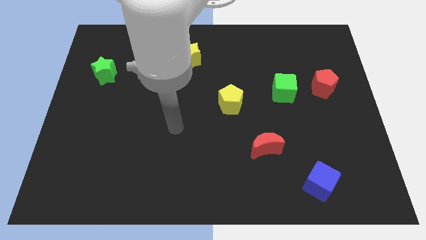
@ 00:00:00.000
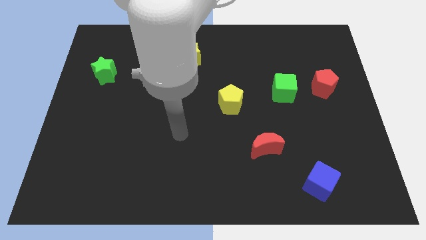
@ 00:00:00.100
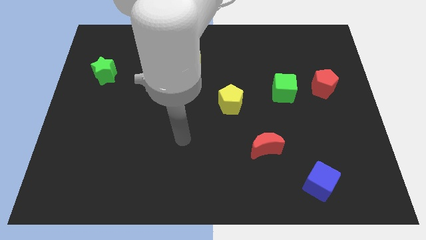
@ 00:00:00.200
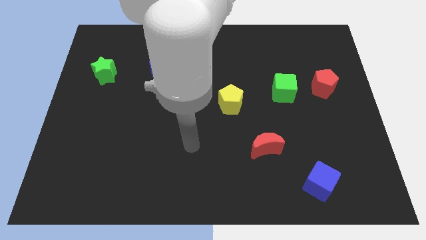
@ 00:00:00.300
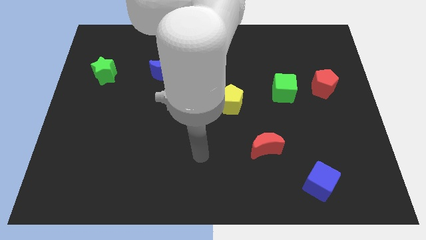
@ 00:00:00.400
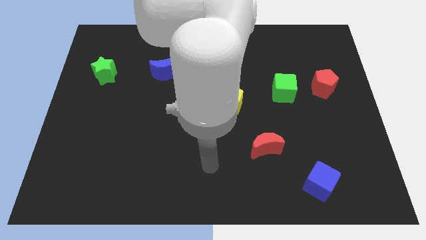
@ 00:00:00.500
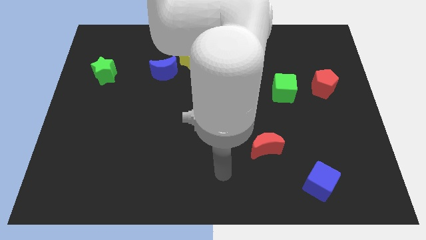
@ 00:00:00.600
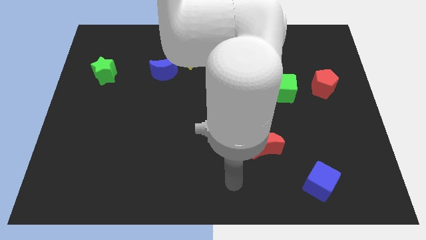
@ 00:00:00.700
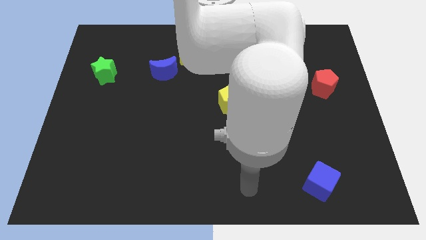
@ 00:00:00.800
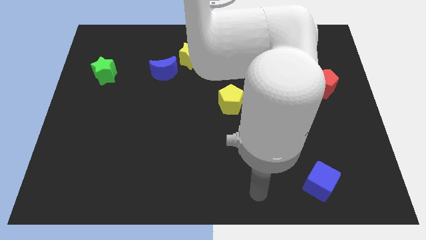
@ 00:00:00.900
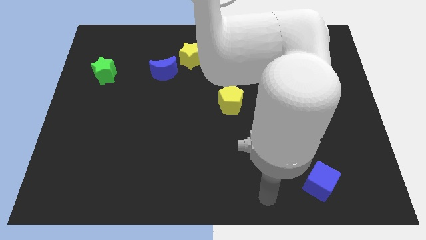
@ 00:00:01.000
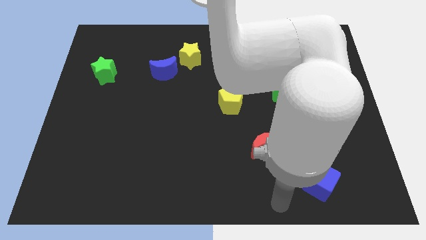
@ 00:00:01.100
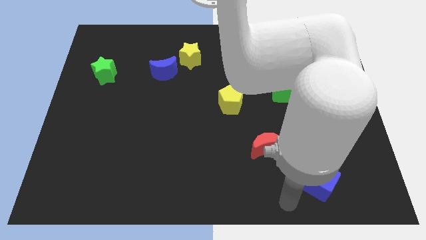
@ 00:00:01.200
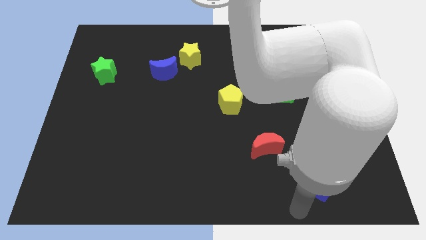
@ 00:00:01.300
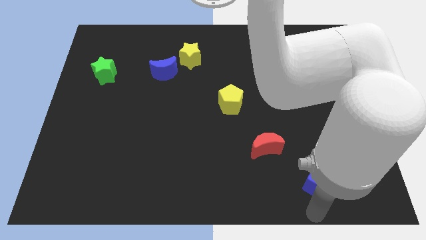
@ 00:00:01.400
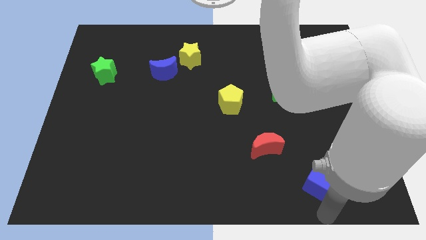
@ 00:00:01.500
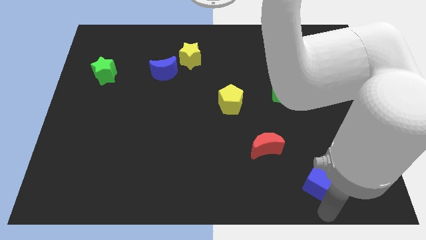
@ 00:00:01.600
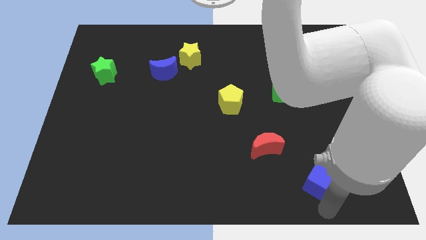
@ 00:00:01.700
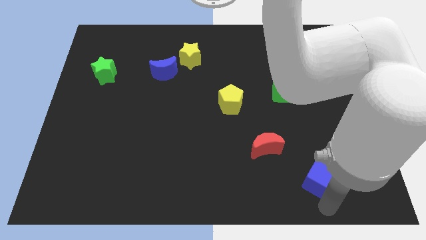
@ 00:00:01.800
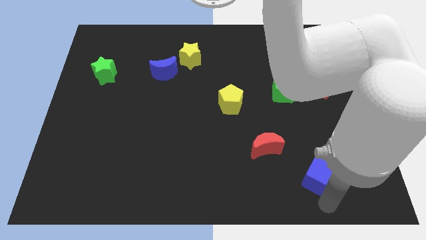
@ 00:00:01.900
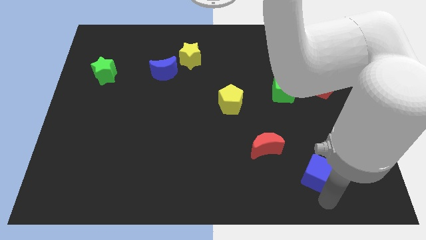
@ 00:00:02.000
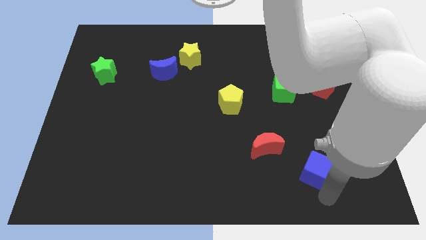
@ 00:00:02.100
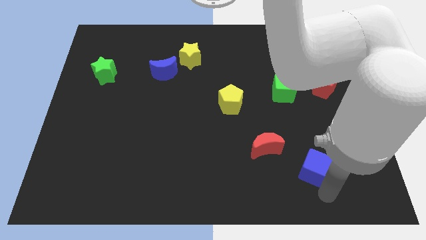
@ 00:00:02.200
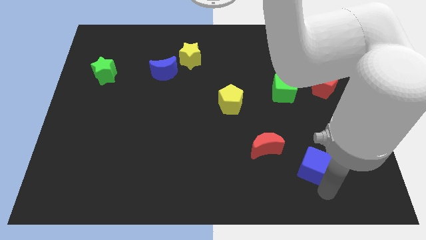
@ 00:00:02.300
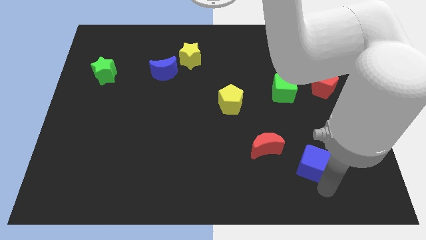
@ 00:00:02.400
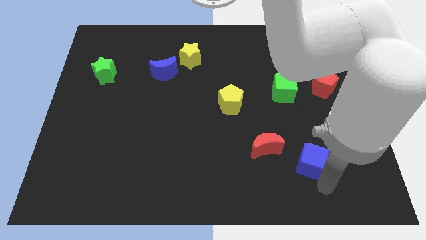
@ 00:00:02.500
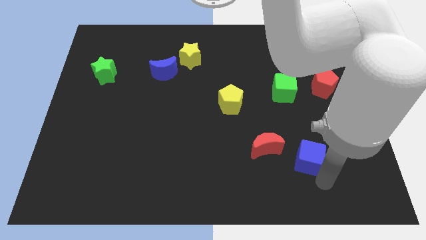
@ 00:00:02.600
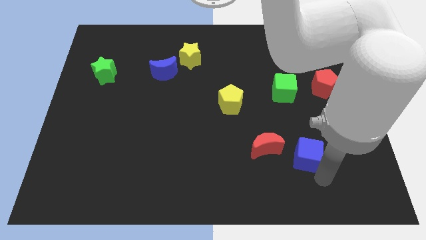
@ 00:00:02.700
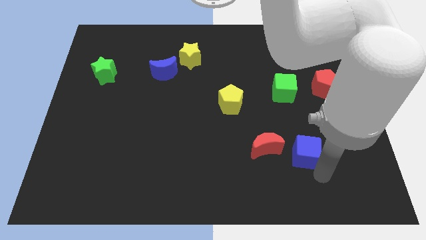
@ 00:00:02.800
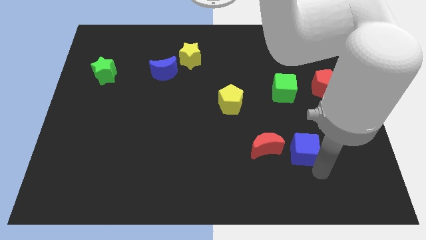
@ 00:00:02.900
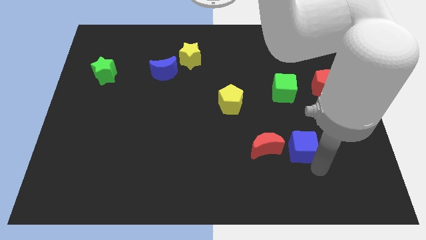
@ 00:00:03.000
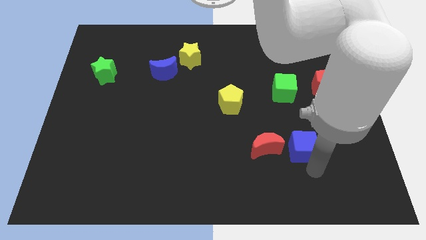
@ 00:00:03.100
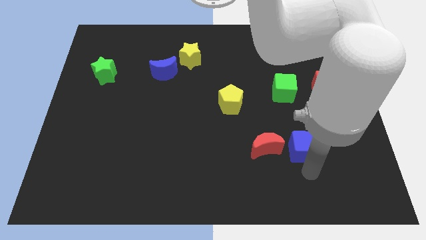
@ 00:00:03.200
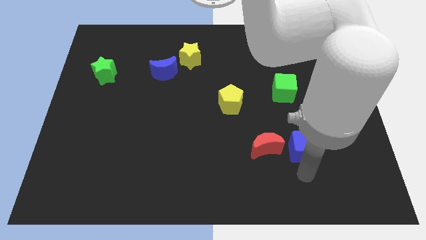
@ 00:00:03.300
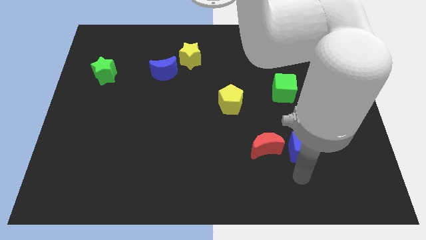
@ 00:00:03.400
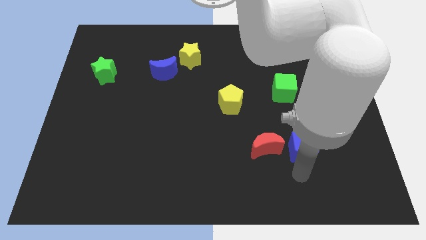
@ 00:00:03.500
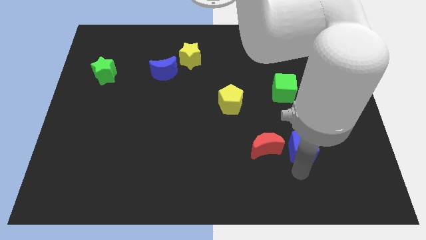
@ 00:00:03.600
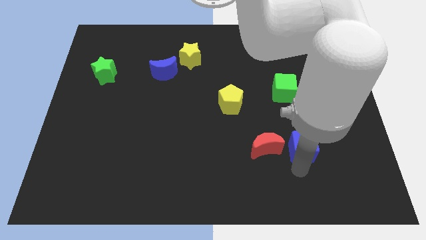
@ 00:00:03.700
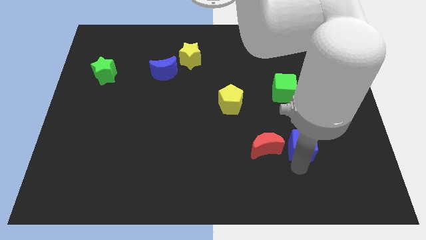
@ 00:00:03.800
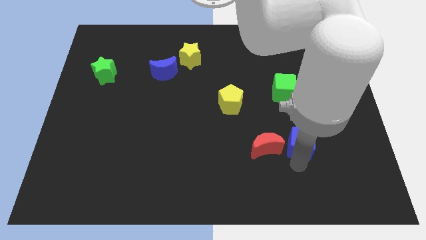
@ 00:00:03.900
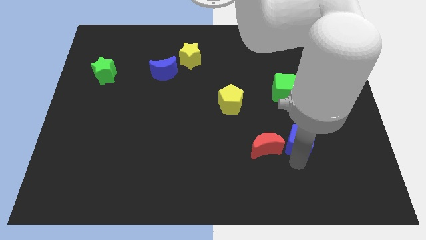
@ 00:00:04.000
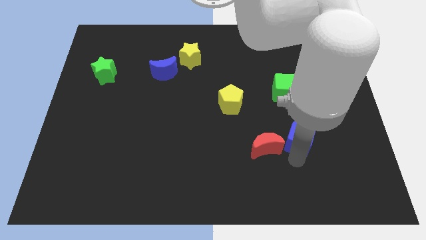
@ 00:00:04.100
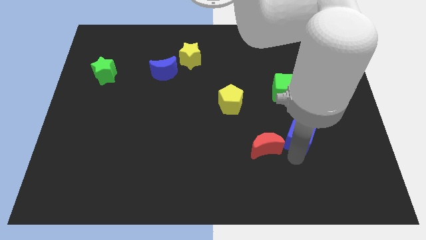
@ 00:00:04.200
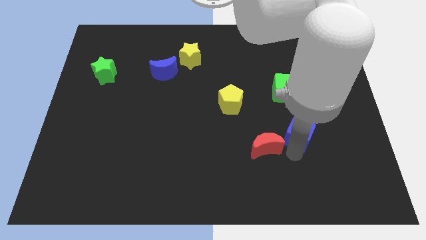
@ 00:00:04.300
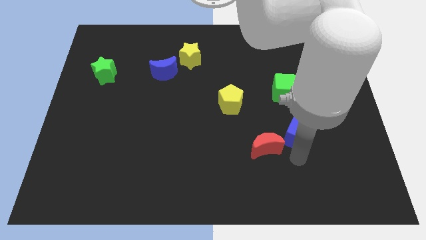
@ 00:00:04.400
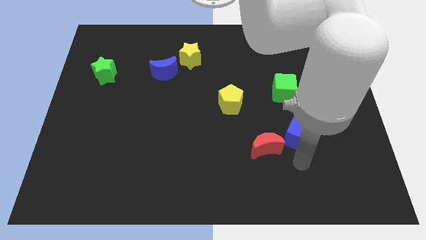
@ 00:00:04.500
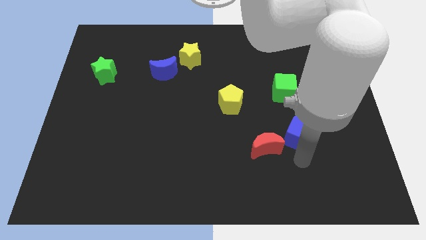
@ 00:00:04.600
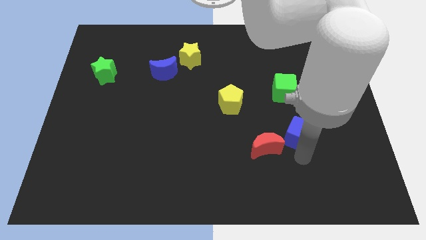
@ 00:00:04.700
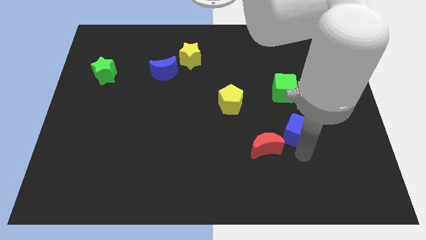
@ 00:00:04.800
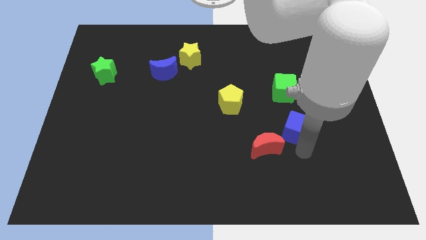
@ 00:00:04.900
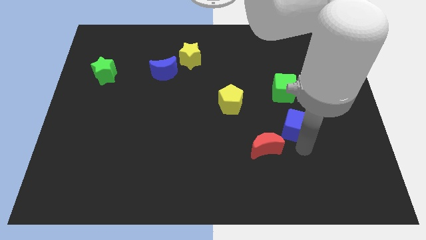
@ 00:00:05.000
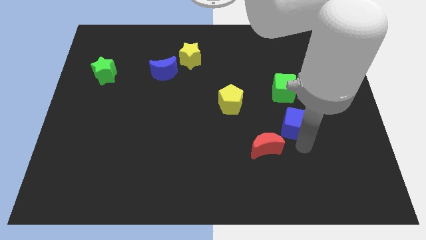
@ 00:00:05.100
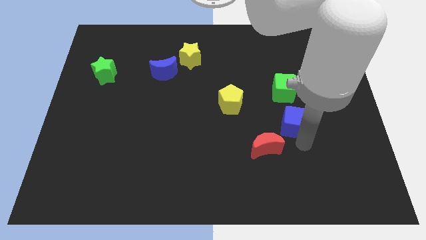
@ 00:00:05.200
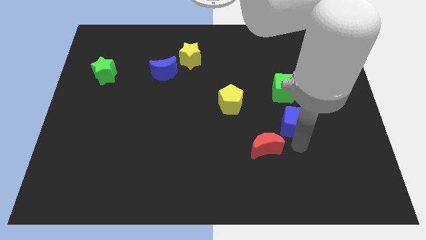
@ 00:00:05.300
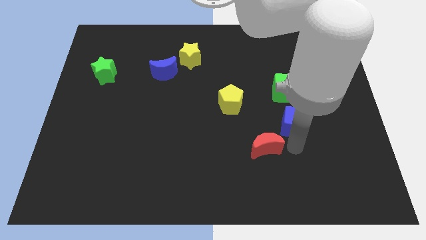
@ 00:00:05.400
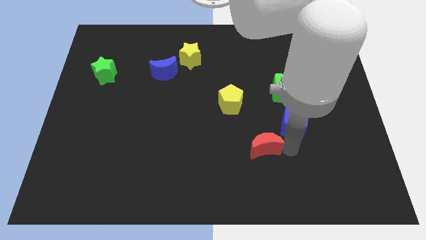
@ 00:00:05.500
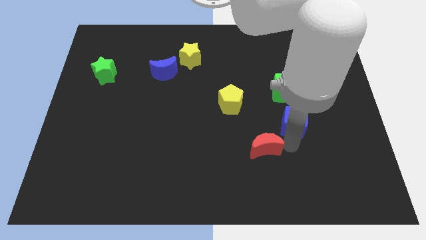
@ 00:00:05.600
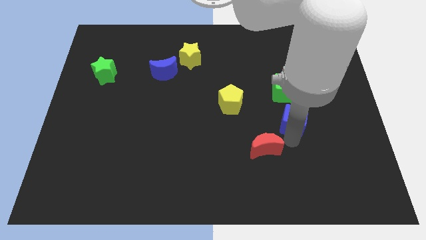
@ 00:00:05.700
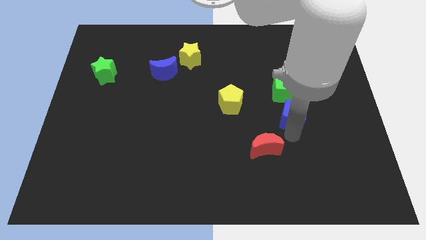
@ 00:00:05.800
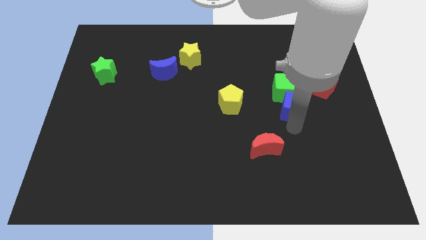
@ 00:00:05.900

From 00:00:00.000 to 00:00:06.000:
slide the blue cube towards the green cube

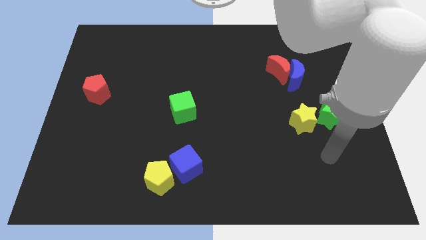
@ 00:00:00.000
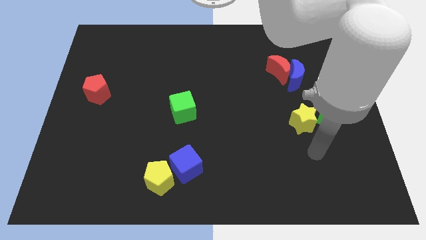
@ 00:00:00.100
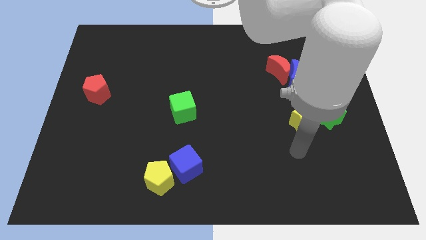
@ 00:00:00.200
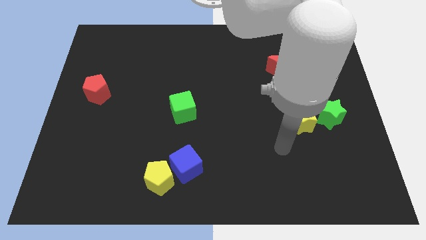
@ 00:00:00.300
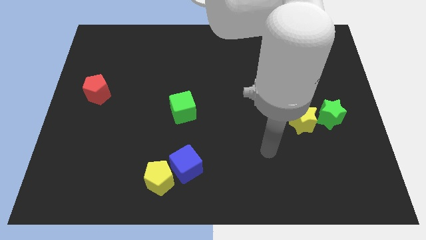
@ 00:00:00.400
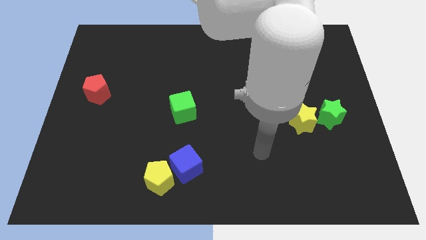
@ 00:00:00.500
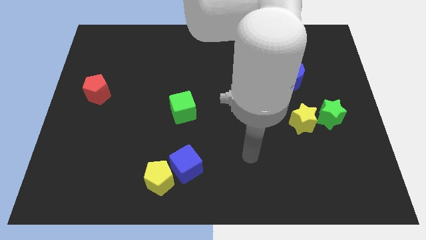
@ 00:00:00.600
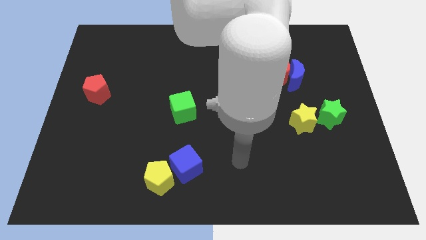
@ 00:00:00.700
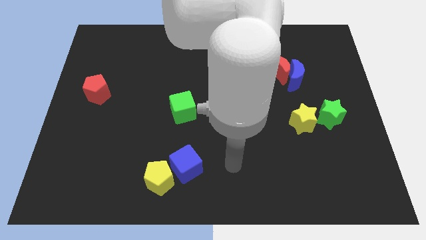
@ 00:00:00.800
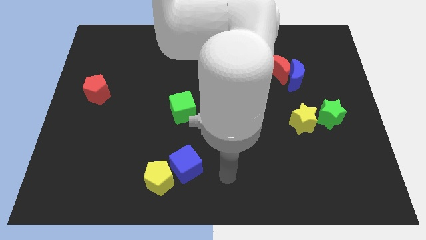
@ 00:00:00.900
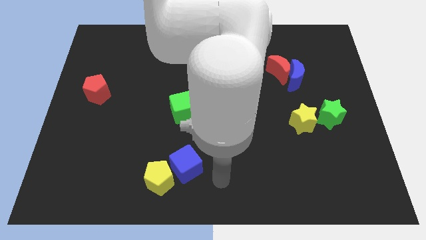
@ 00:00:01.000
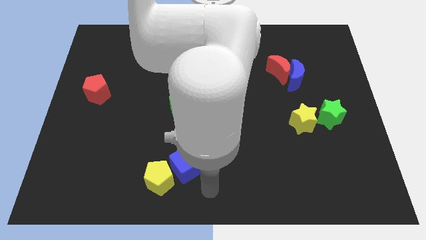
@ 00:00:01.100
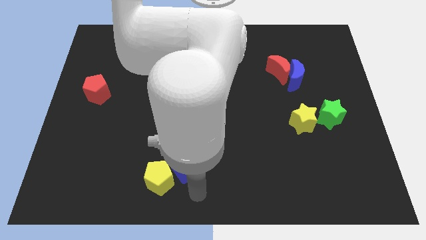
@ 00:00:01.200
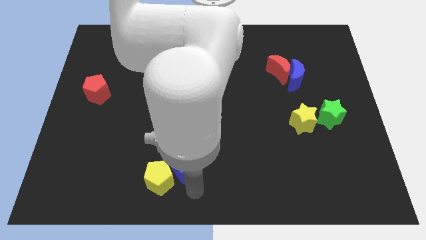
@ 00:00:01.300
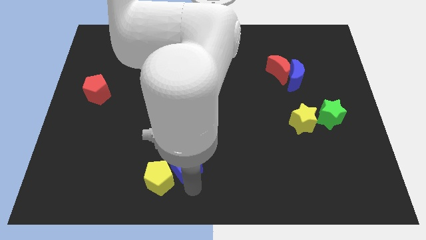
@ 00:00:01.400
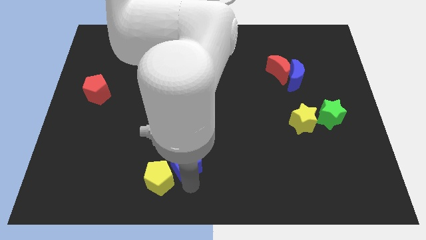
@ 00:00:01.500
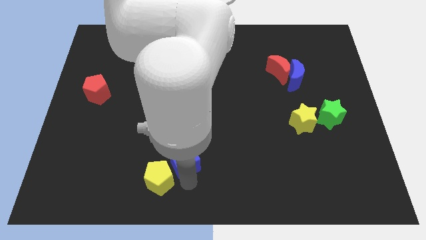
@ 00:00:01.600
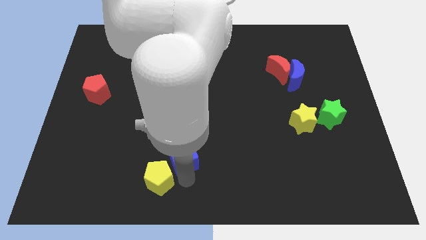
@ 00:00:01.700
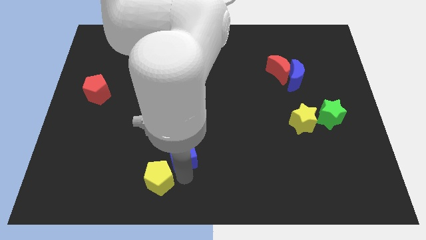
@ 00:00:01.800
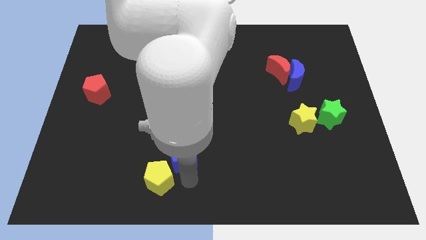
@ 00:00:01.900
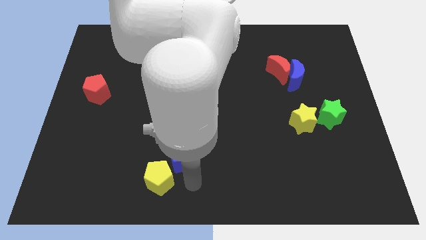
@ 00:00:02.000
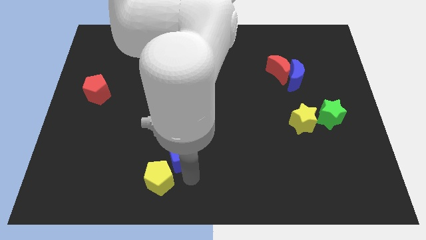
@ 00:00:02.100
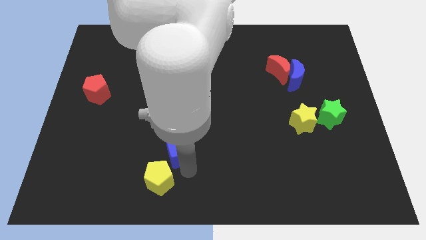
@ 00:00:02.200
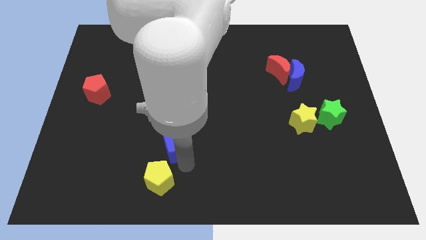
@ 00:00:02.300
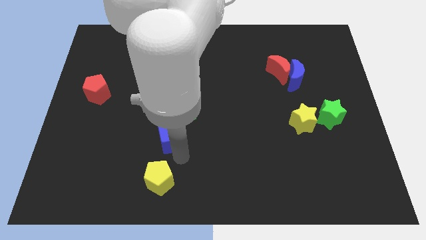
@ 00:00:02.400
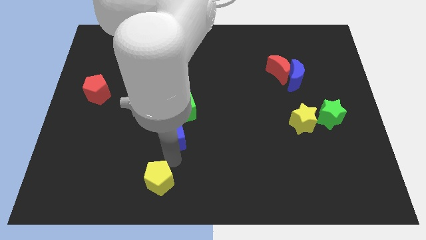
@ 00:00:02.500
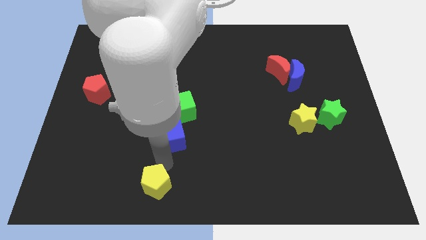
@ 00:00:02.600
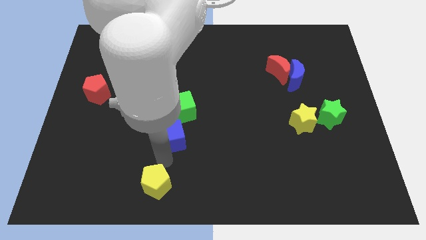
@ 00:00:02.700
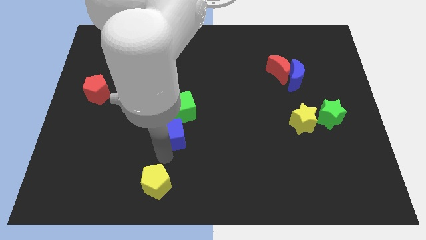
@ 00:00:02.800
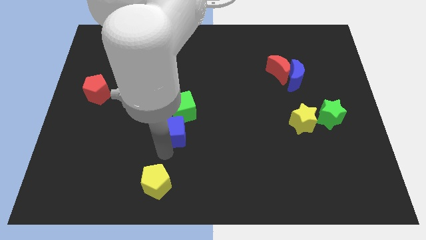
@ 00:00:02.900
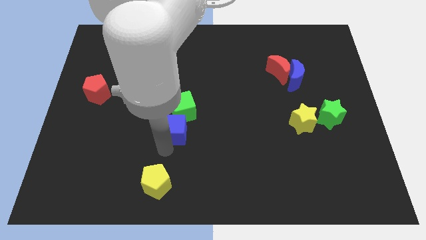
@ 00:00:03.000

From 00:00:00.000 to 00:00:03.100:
push the blue cube towards the green cube
